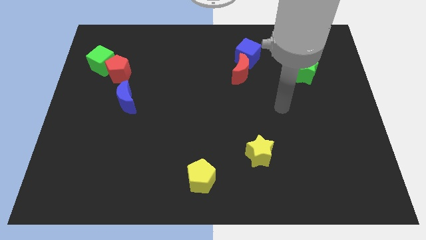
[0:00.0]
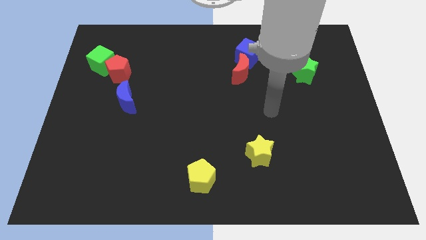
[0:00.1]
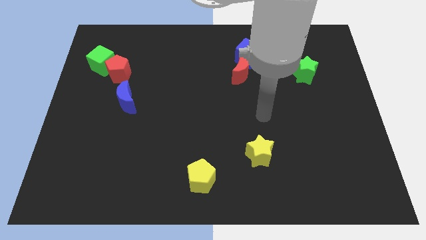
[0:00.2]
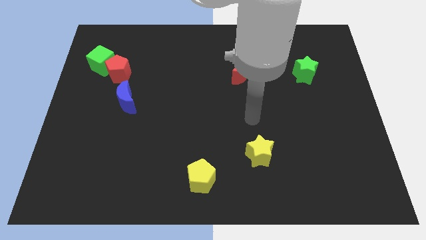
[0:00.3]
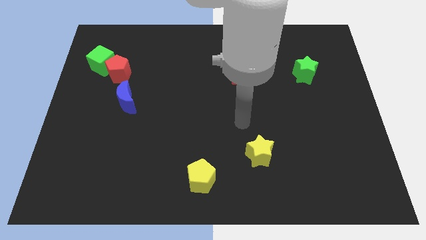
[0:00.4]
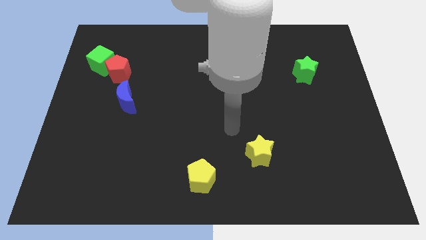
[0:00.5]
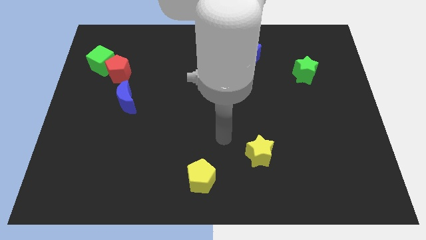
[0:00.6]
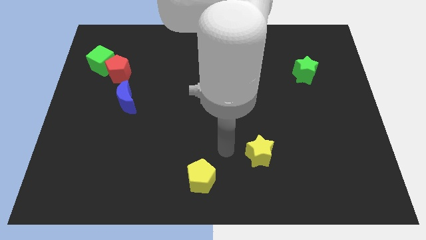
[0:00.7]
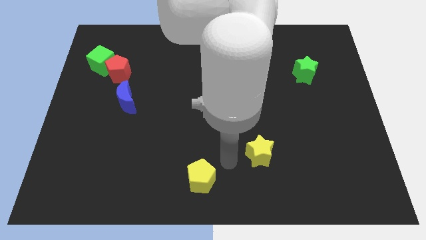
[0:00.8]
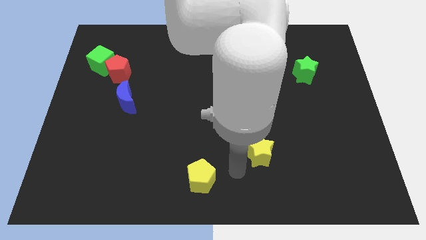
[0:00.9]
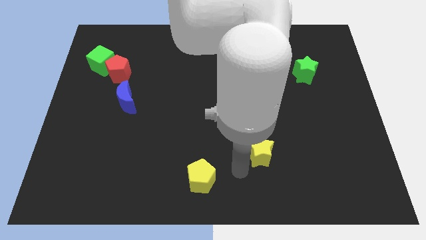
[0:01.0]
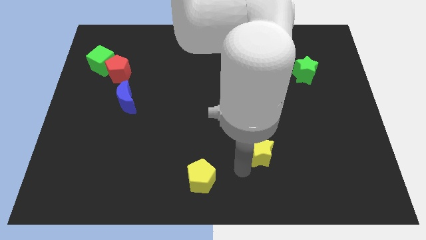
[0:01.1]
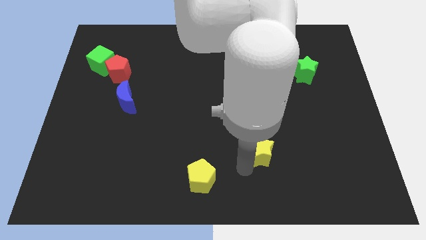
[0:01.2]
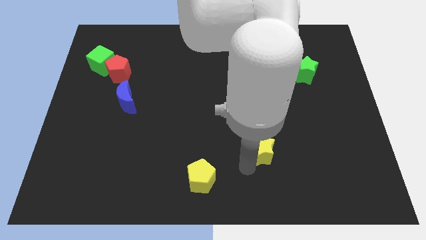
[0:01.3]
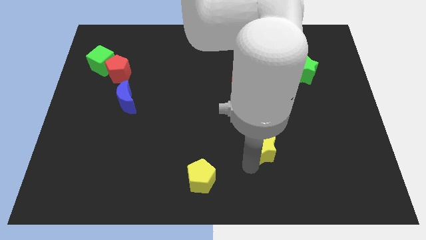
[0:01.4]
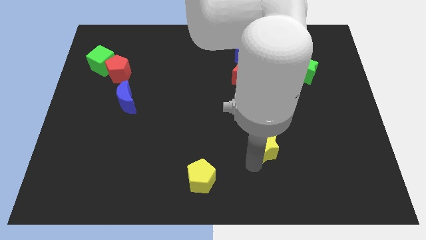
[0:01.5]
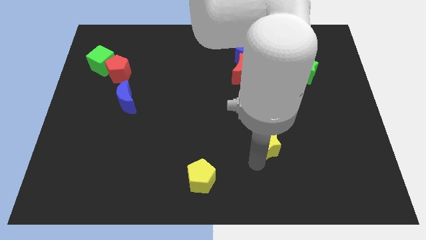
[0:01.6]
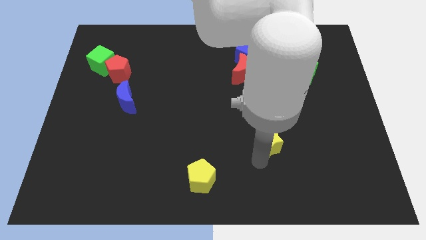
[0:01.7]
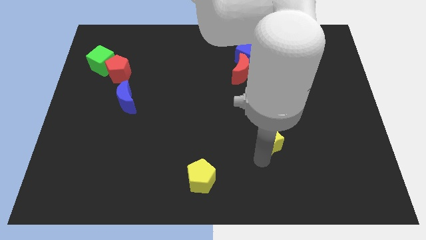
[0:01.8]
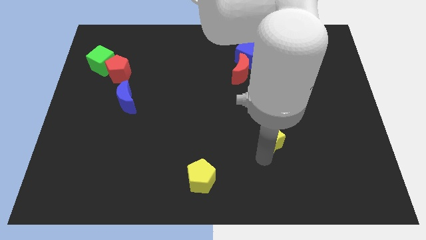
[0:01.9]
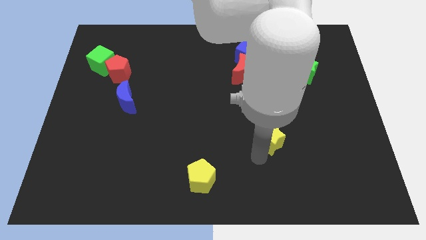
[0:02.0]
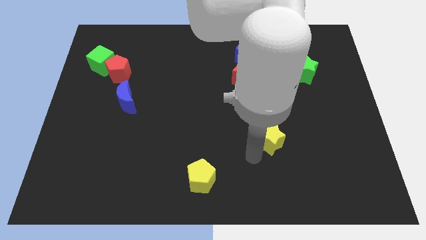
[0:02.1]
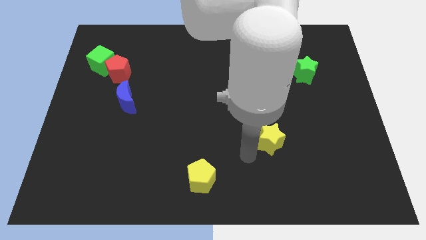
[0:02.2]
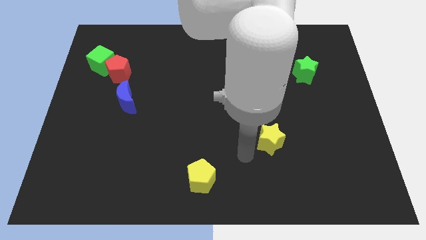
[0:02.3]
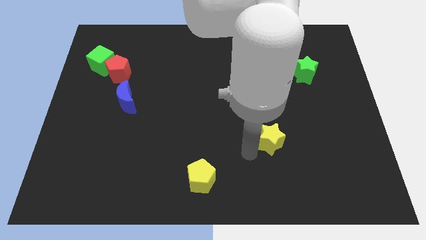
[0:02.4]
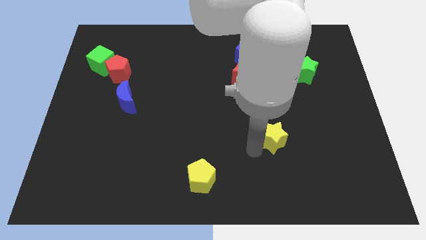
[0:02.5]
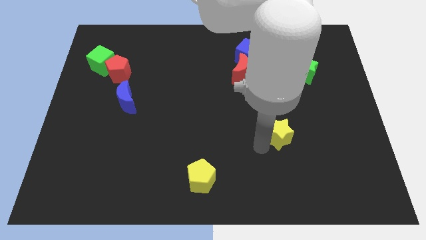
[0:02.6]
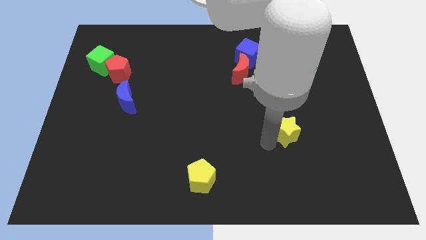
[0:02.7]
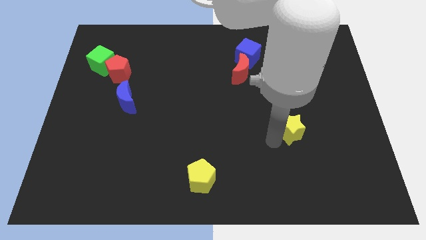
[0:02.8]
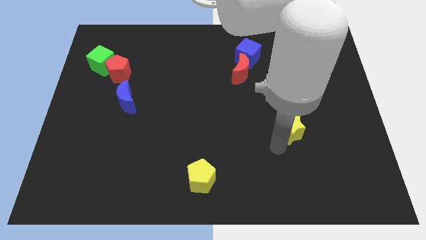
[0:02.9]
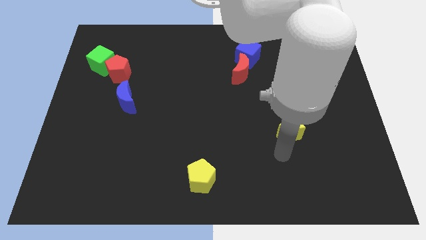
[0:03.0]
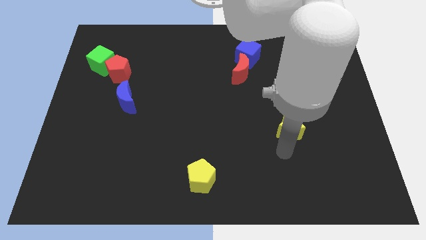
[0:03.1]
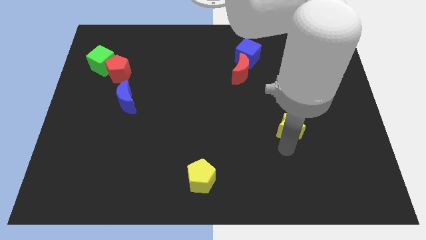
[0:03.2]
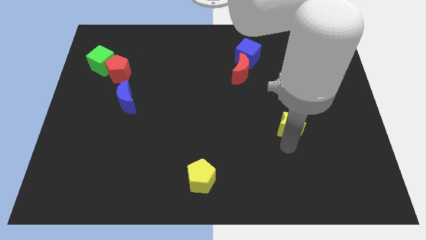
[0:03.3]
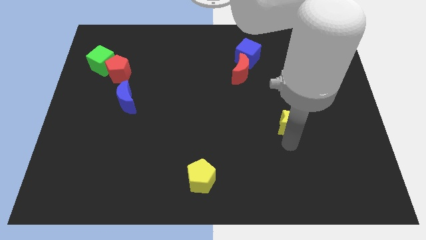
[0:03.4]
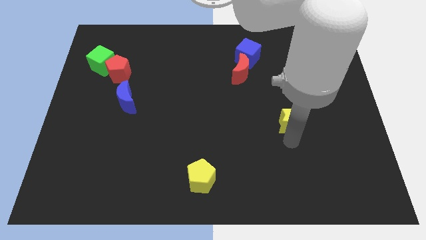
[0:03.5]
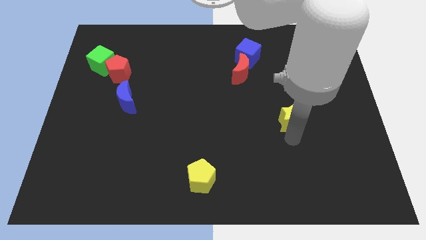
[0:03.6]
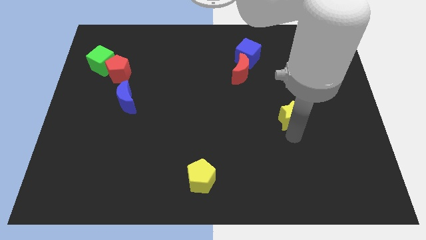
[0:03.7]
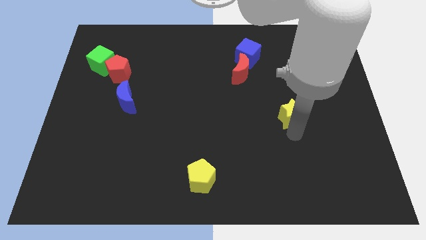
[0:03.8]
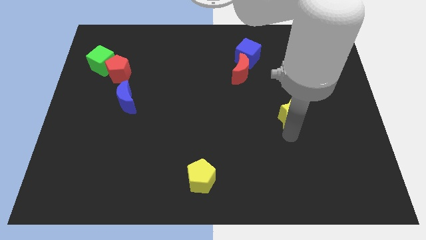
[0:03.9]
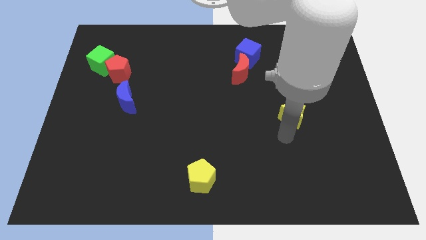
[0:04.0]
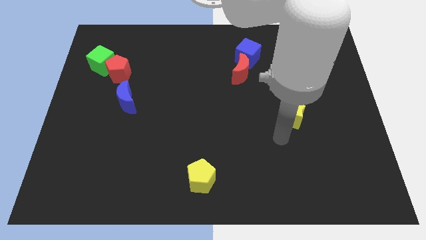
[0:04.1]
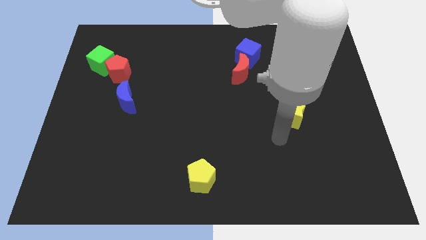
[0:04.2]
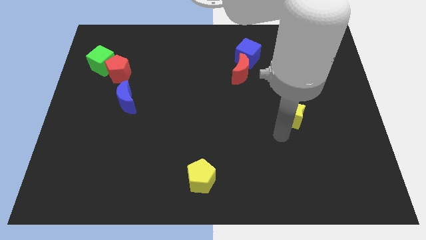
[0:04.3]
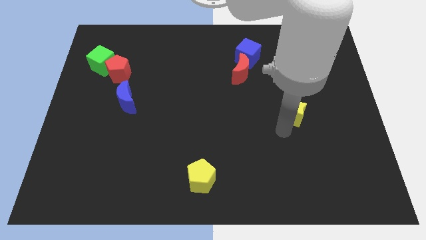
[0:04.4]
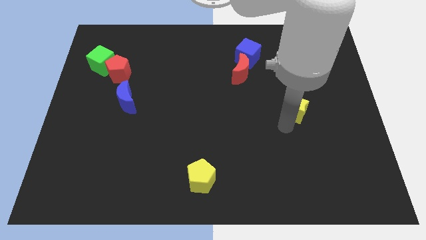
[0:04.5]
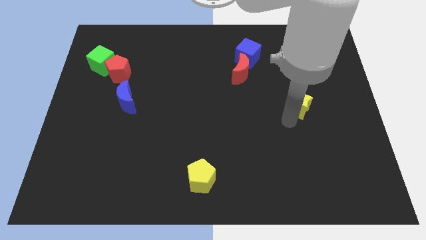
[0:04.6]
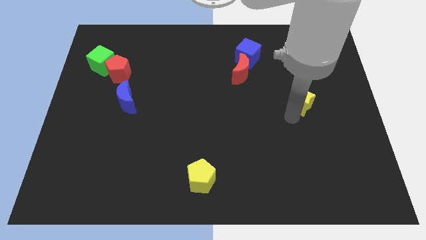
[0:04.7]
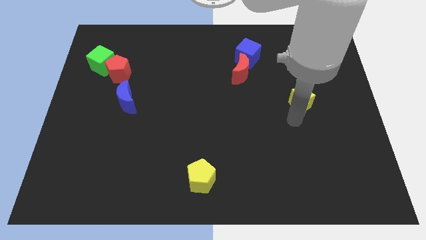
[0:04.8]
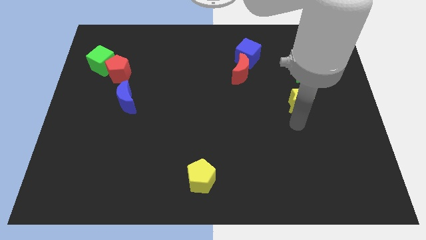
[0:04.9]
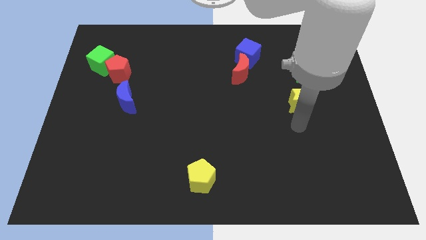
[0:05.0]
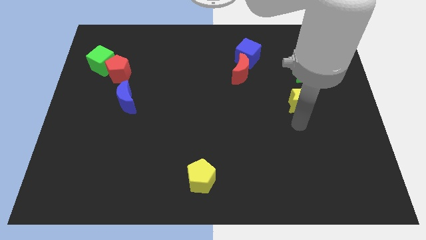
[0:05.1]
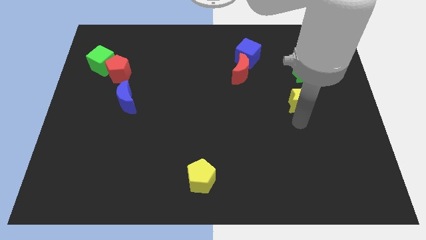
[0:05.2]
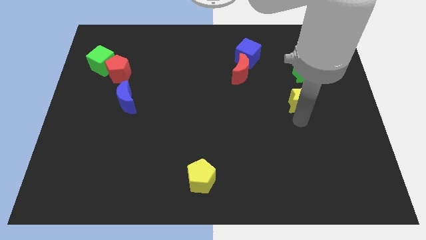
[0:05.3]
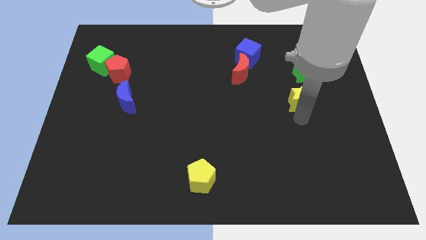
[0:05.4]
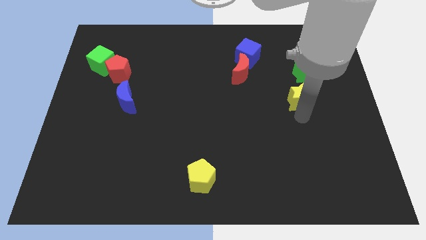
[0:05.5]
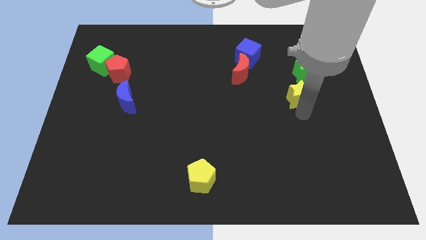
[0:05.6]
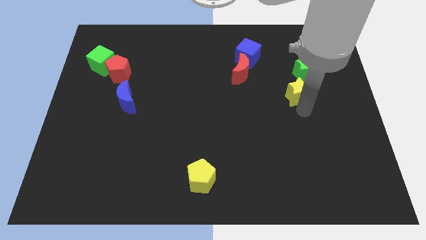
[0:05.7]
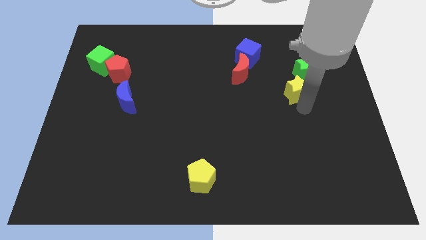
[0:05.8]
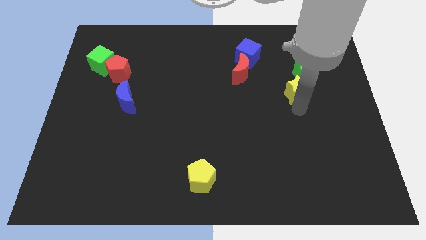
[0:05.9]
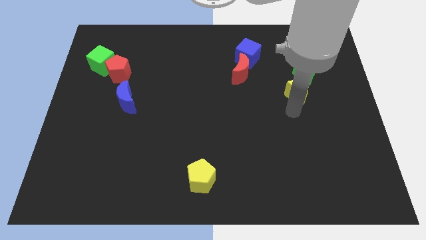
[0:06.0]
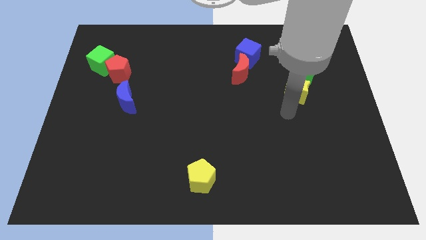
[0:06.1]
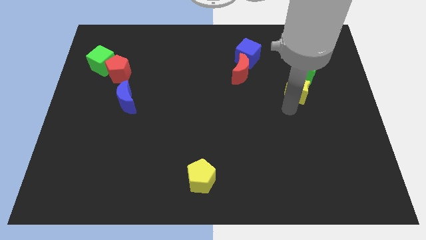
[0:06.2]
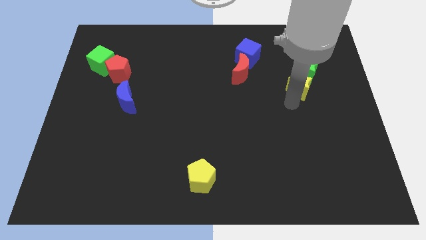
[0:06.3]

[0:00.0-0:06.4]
move the yellow star towards the green star
